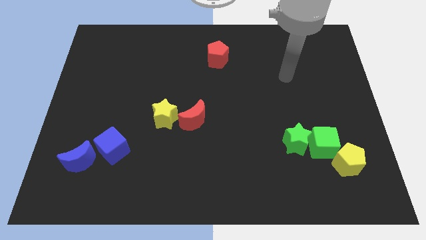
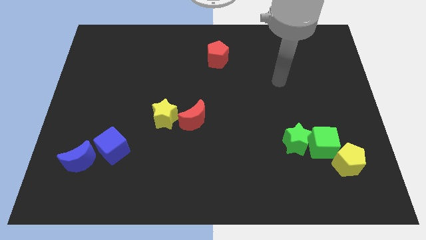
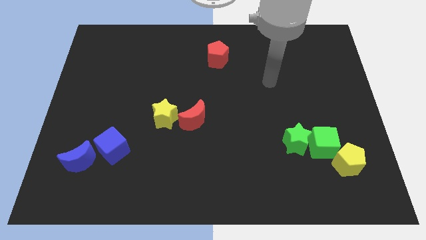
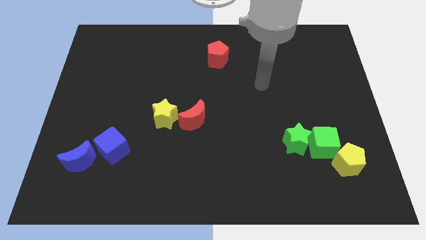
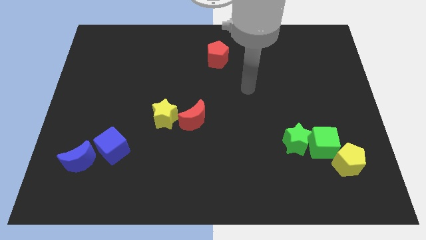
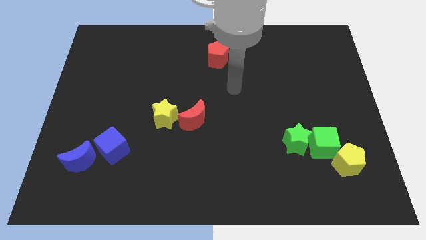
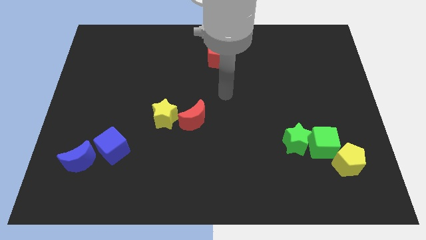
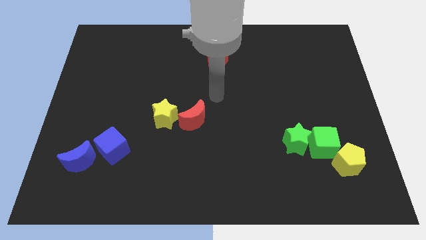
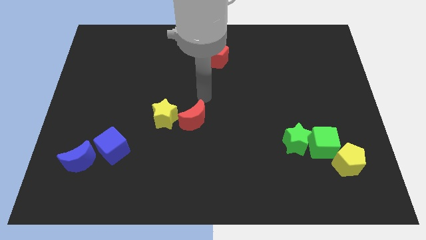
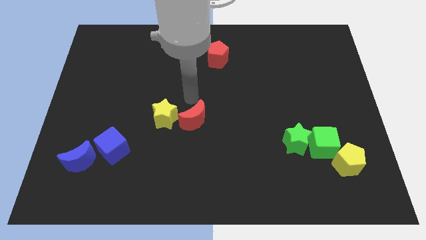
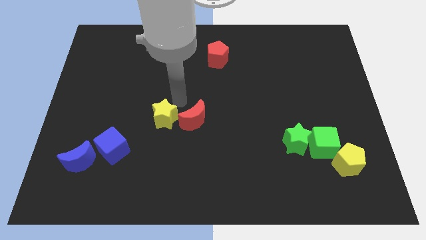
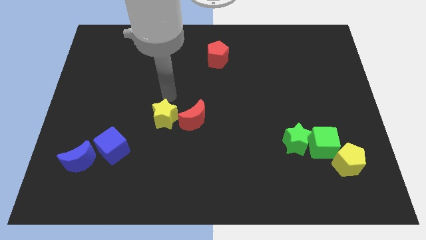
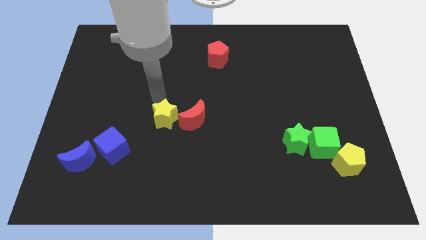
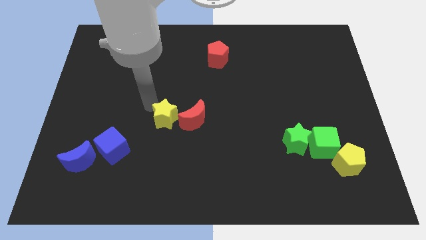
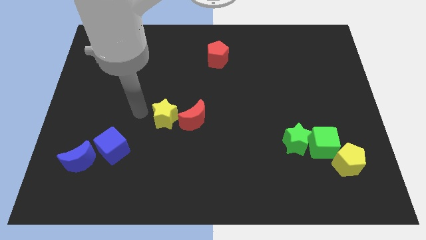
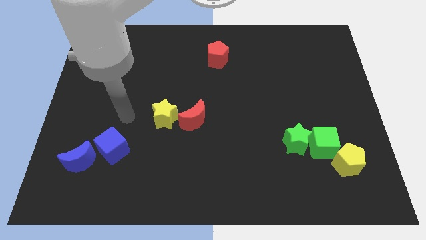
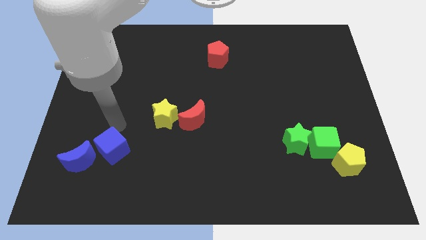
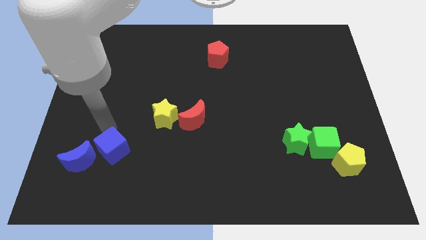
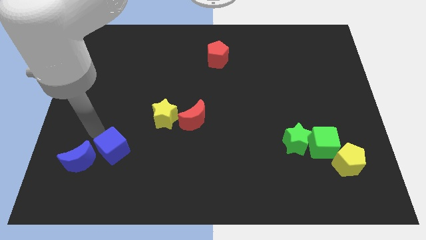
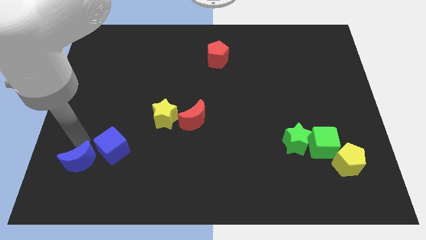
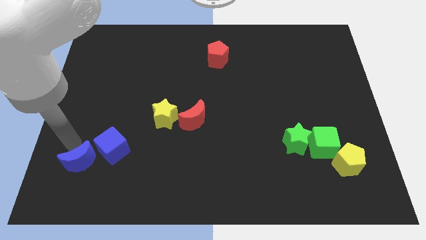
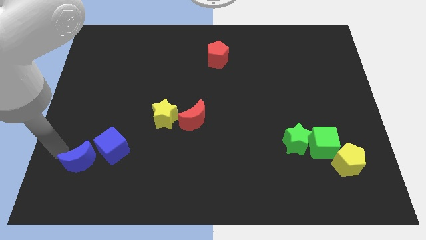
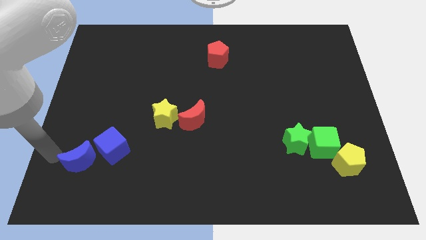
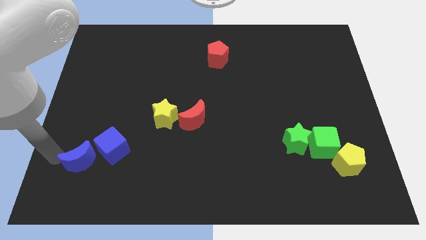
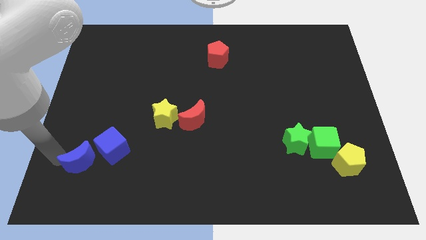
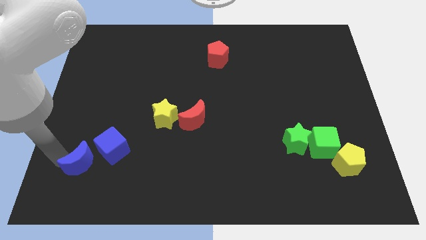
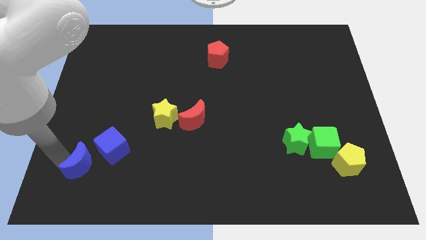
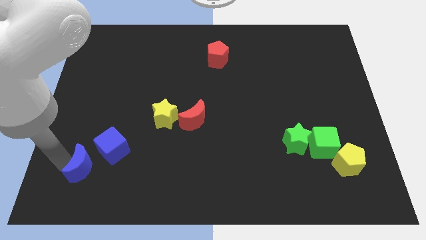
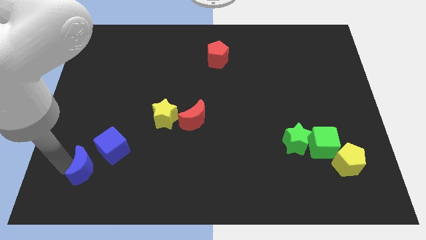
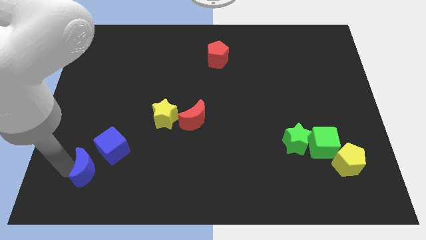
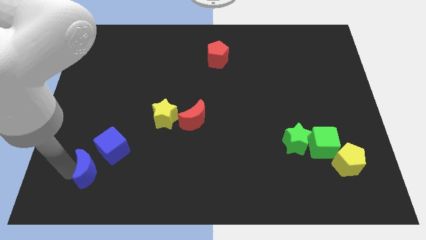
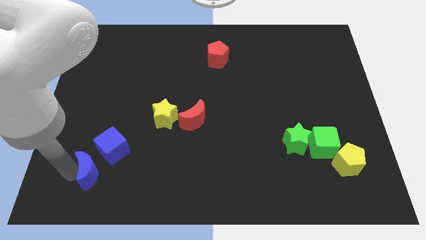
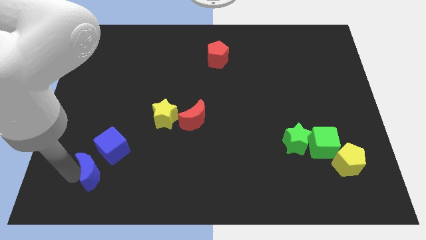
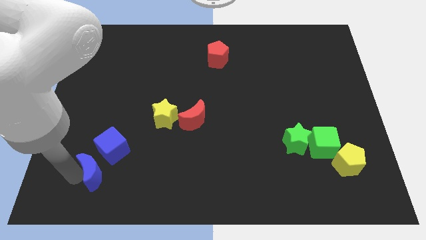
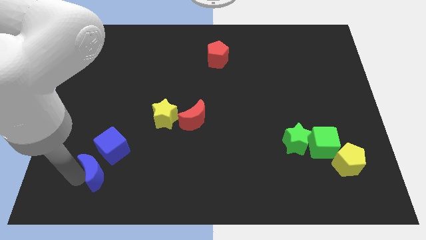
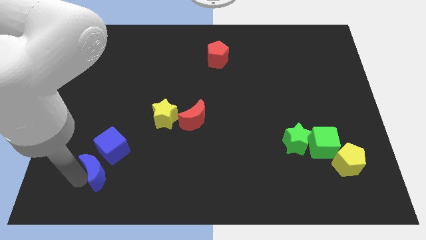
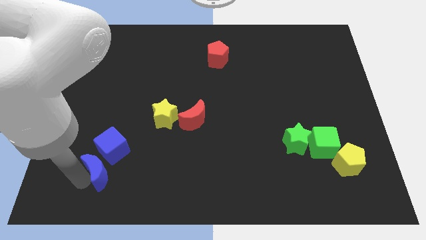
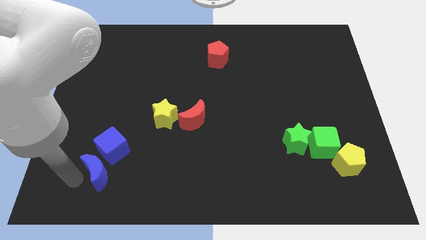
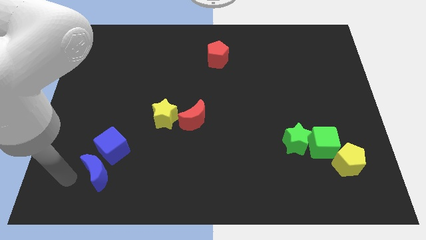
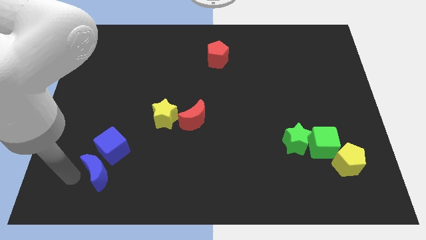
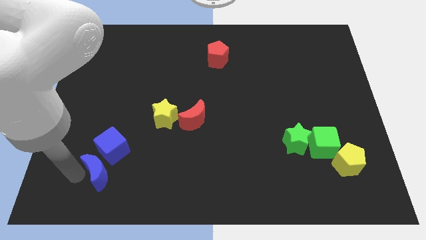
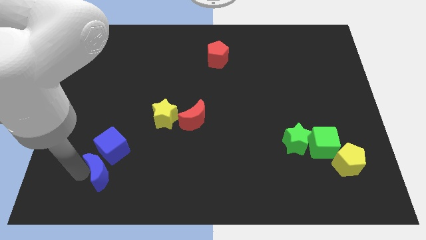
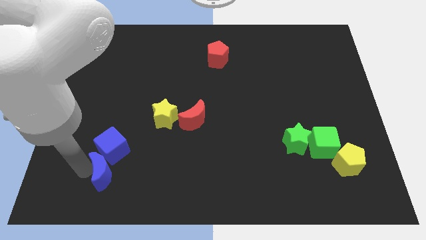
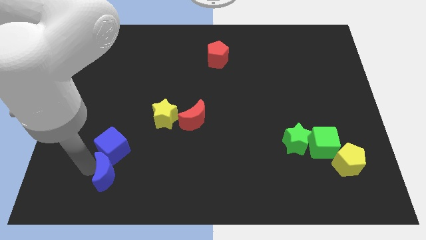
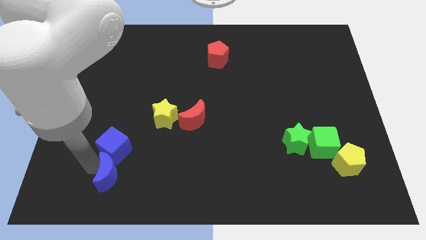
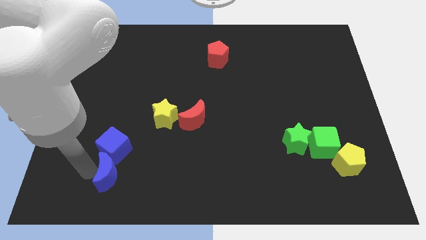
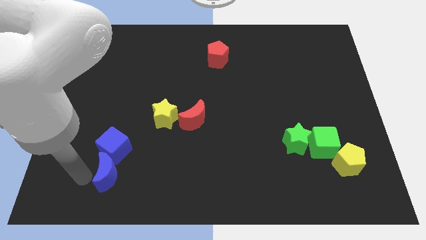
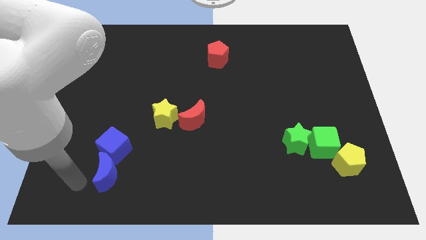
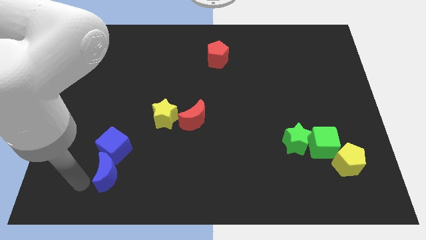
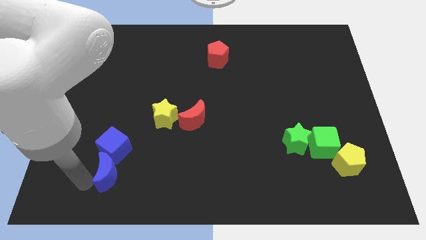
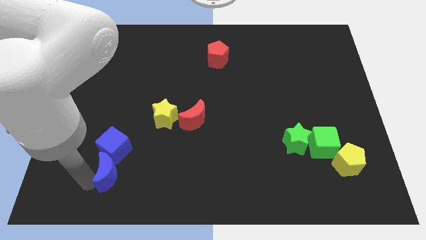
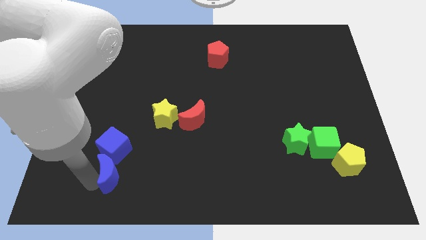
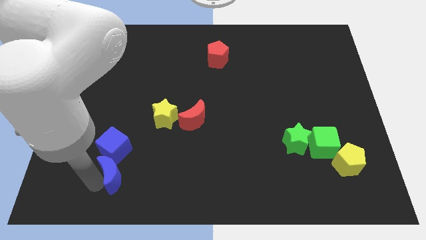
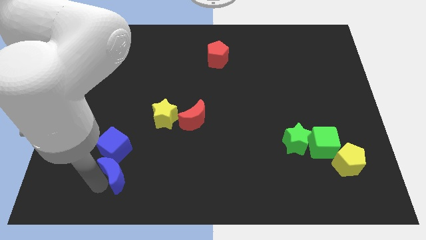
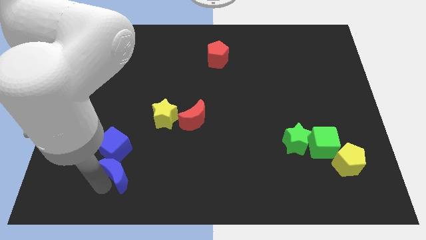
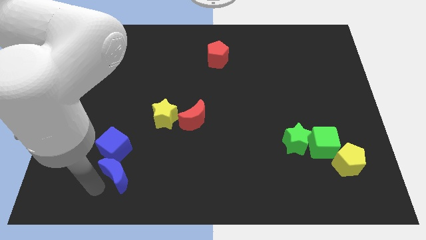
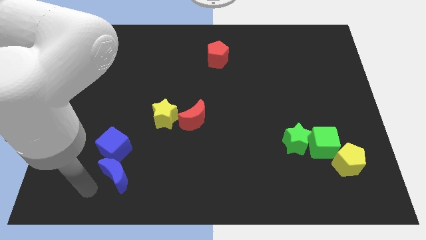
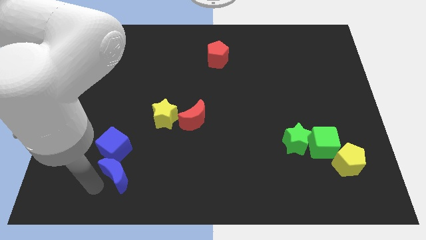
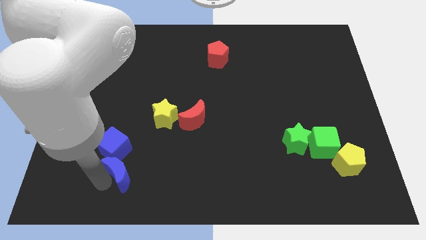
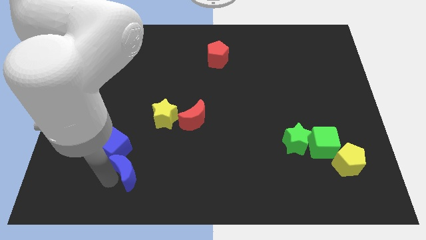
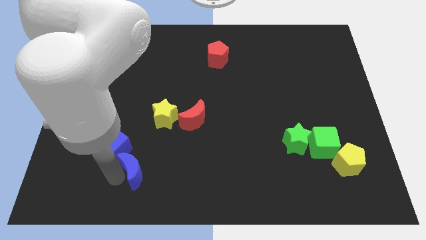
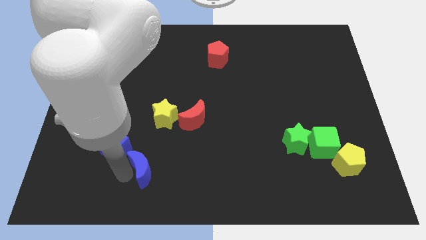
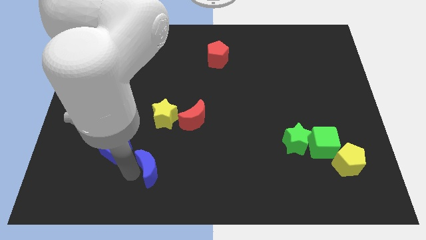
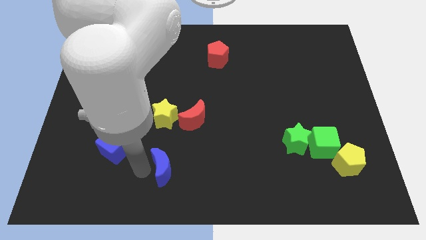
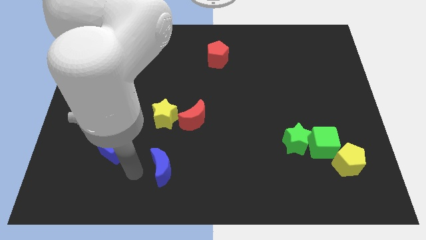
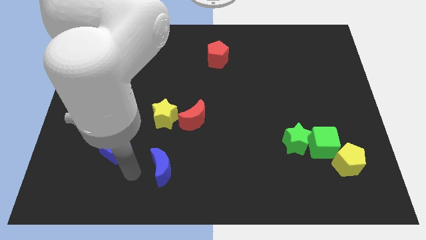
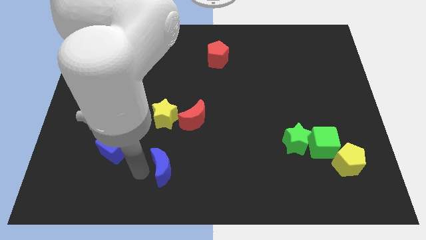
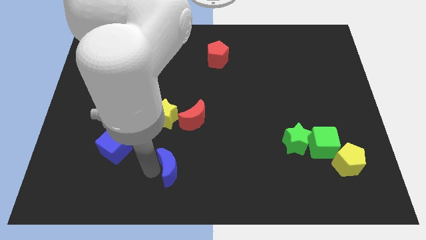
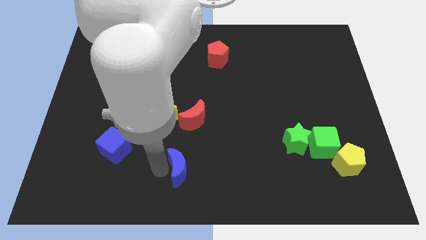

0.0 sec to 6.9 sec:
move the blue moon right

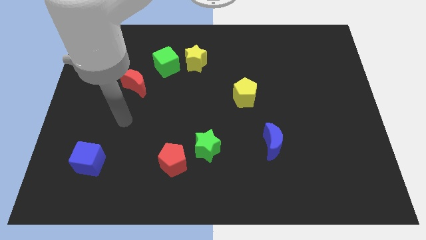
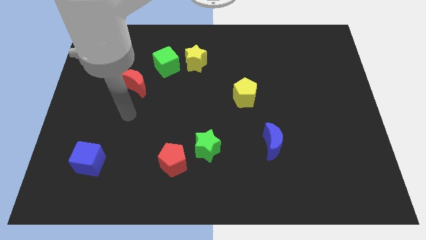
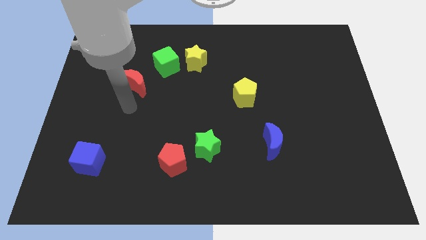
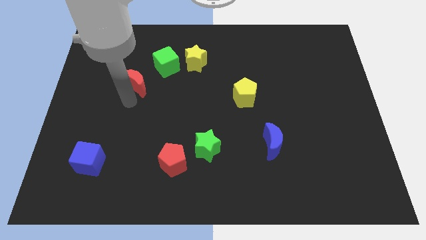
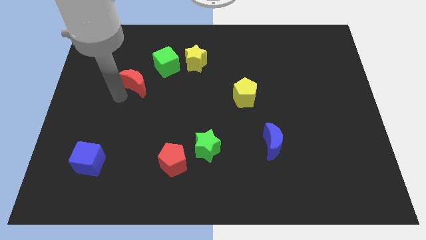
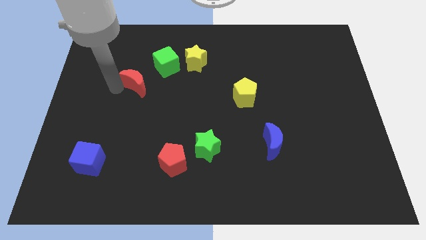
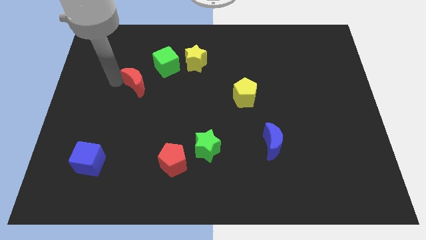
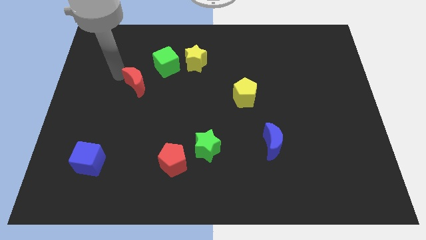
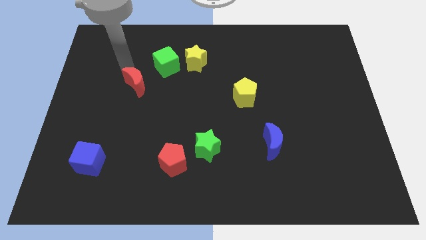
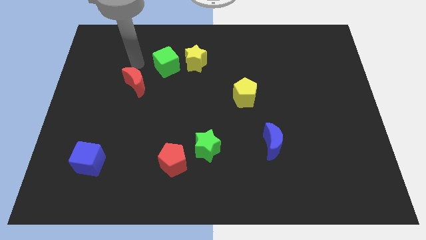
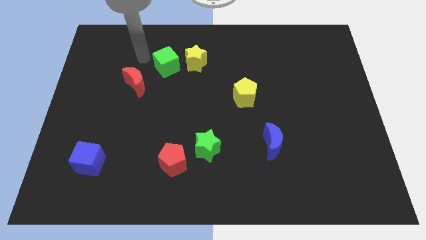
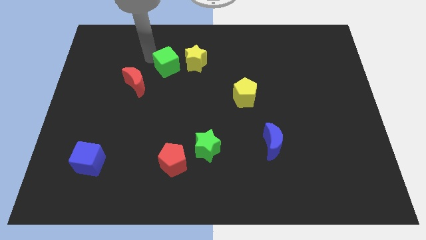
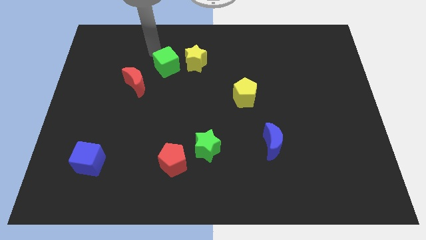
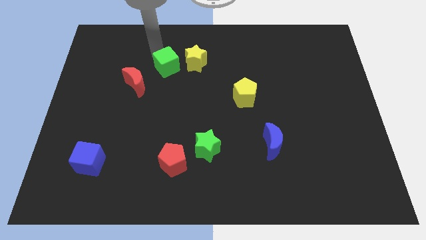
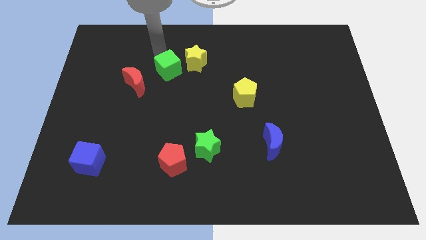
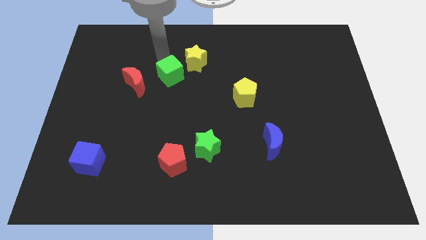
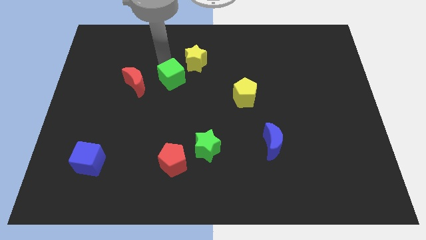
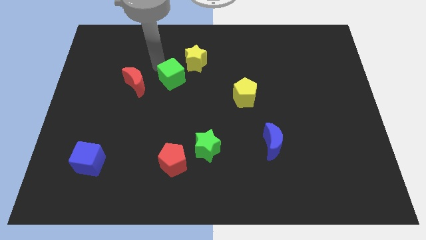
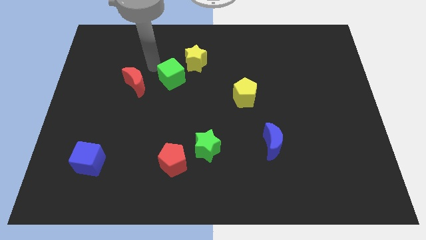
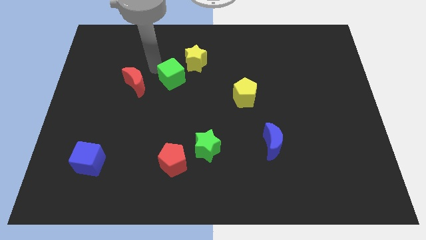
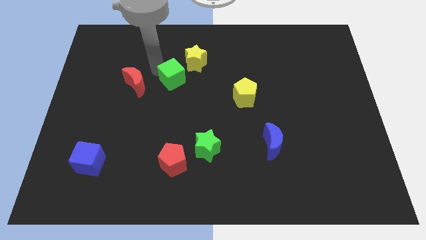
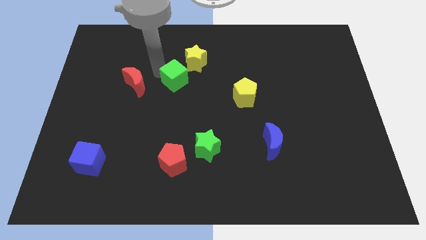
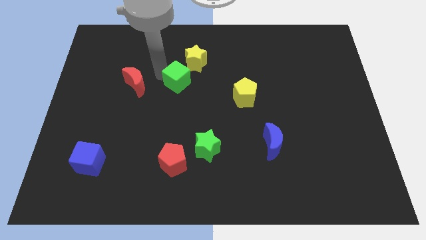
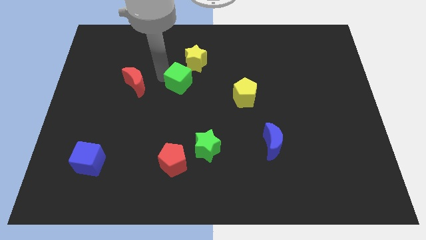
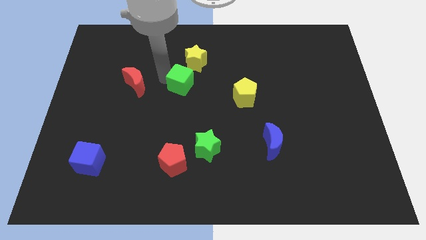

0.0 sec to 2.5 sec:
slide the green cube a little down and right diagonally
